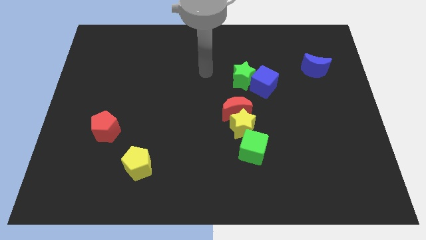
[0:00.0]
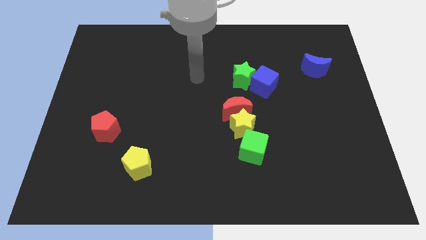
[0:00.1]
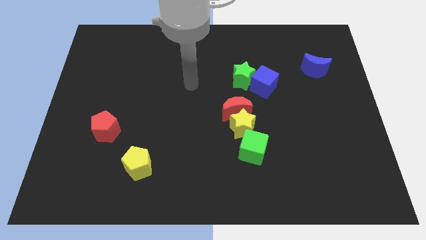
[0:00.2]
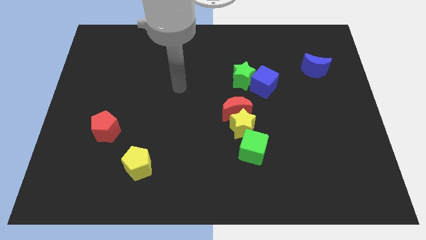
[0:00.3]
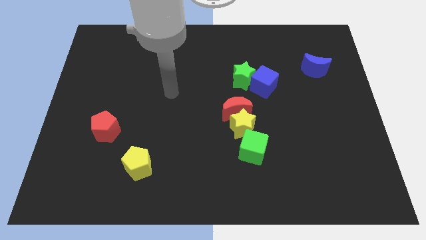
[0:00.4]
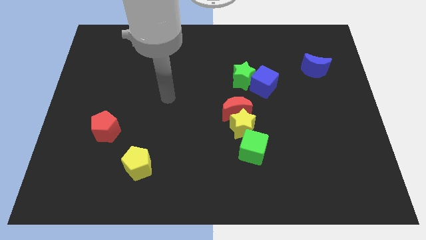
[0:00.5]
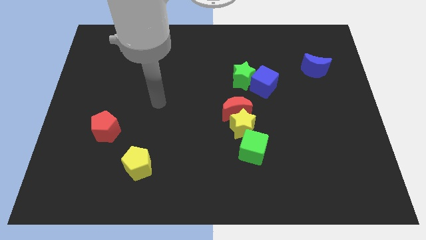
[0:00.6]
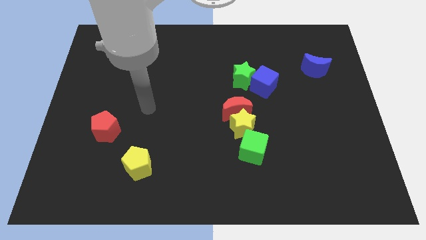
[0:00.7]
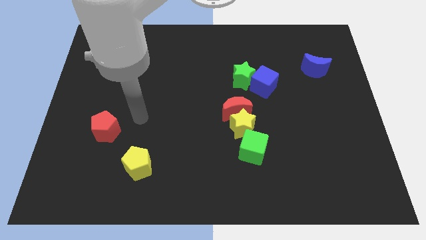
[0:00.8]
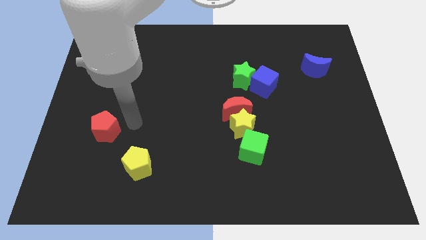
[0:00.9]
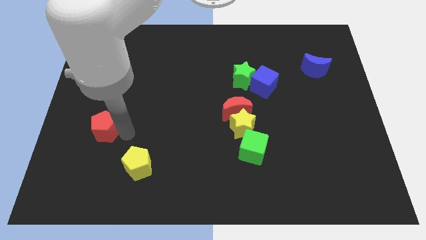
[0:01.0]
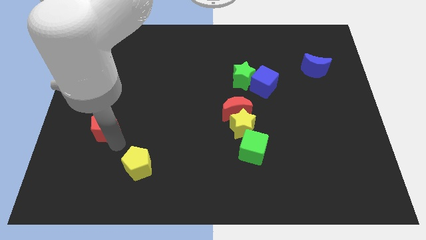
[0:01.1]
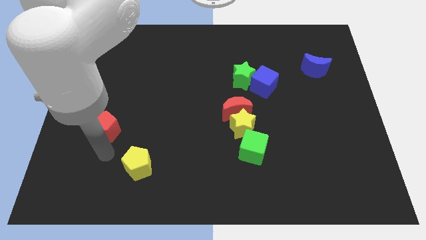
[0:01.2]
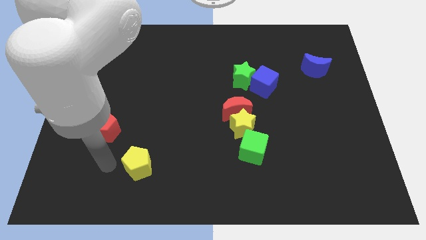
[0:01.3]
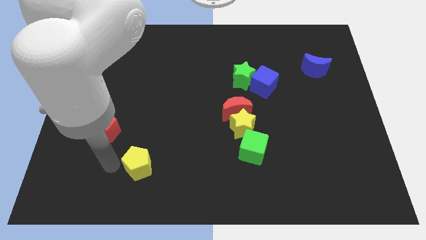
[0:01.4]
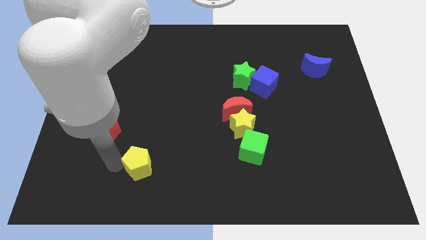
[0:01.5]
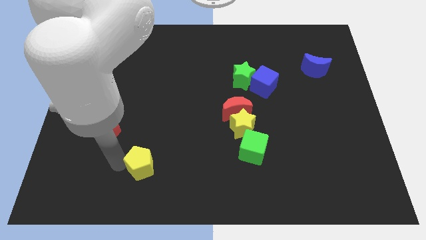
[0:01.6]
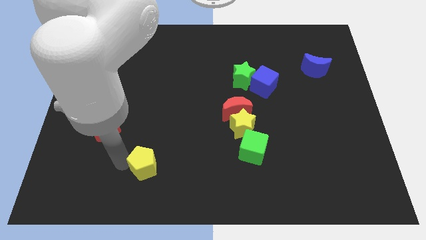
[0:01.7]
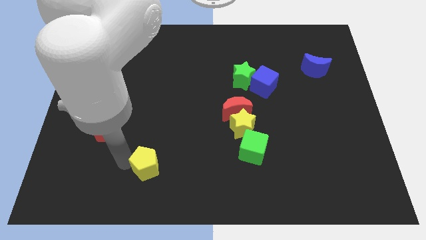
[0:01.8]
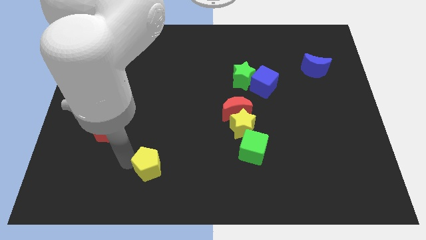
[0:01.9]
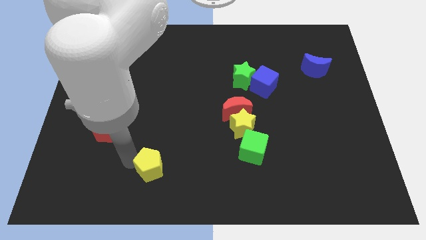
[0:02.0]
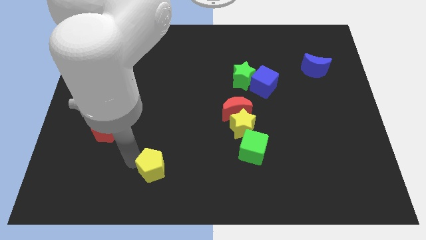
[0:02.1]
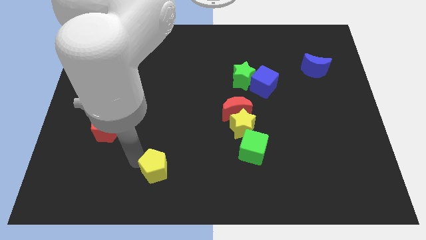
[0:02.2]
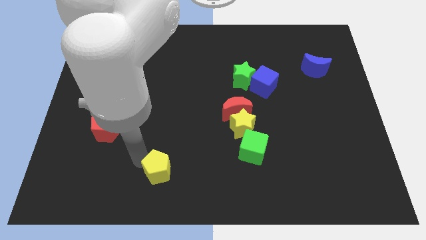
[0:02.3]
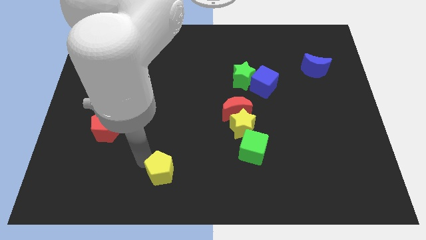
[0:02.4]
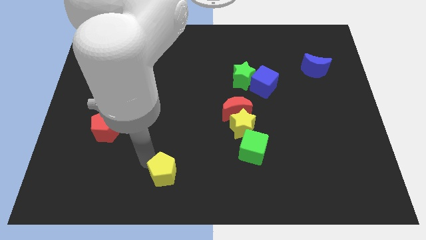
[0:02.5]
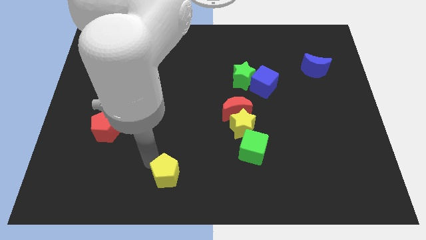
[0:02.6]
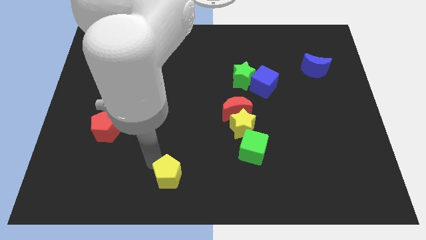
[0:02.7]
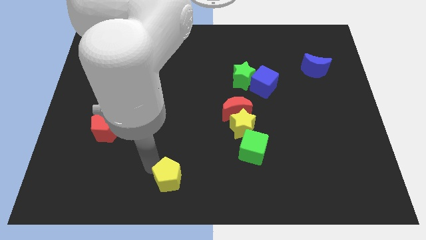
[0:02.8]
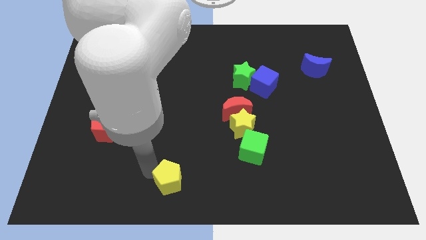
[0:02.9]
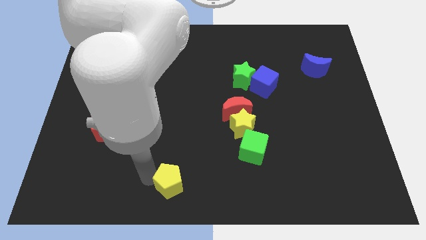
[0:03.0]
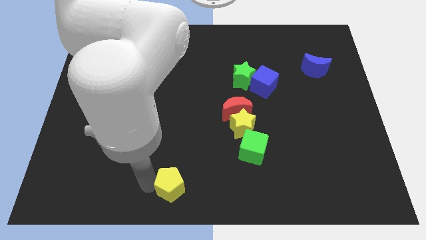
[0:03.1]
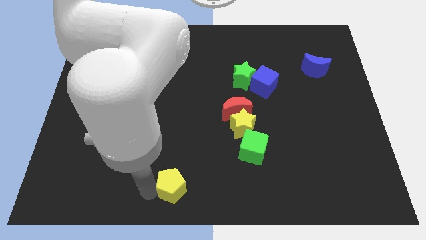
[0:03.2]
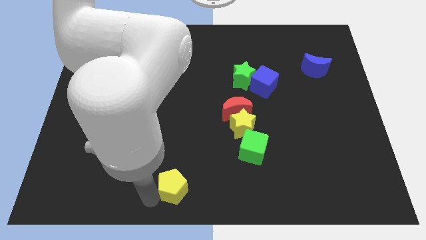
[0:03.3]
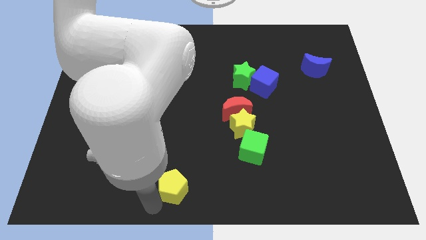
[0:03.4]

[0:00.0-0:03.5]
slide the yellow pentagon right a little bit

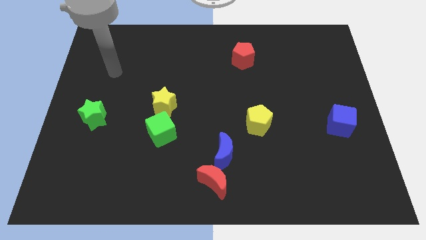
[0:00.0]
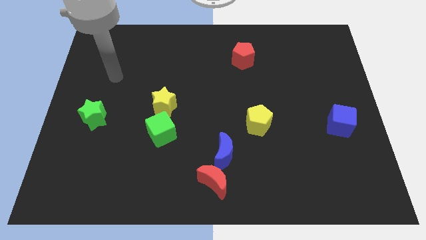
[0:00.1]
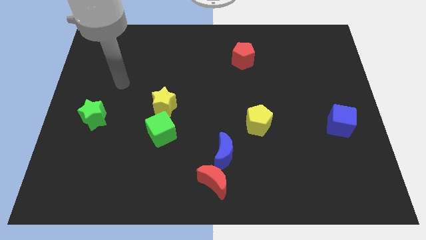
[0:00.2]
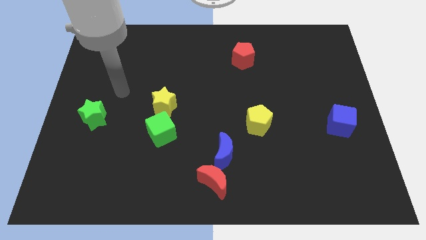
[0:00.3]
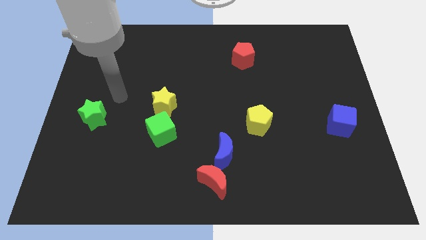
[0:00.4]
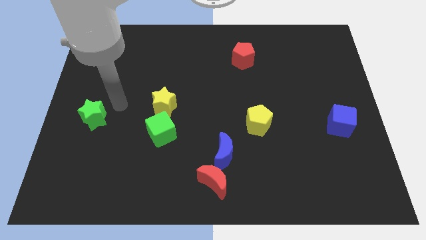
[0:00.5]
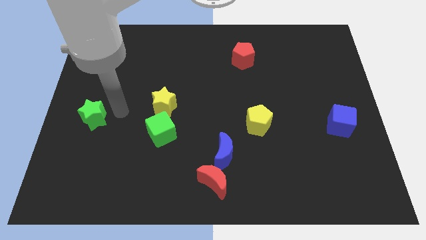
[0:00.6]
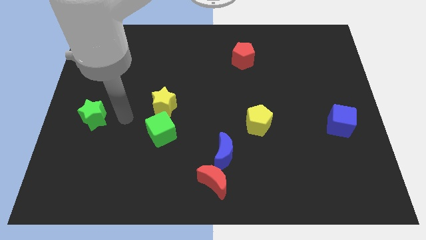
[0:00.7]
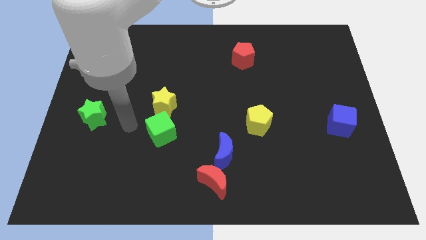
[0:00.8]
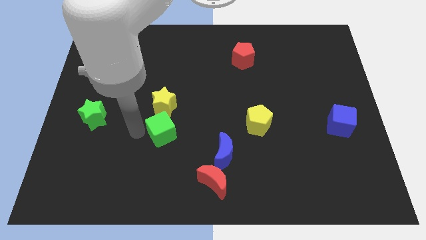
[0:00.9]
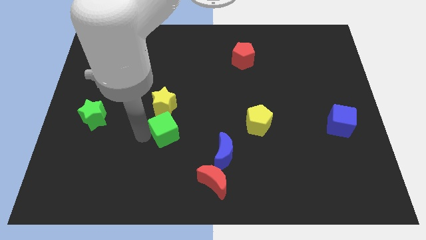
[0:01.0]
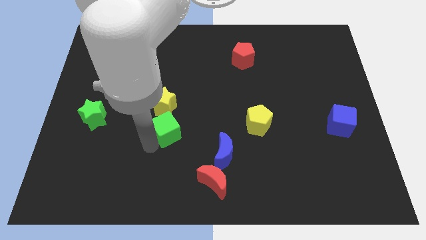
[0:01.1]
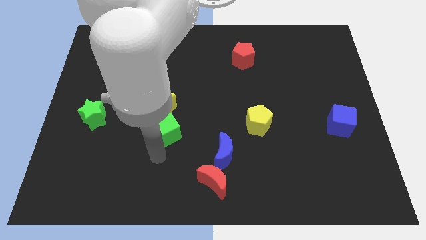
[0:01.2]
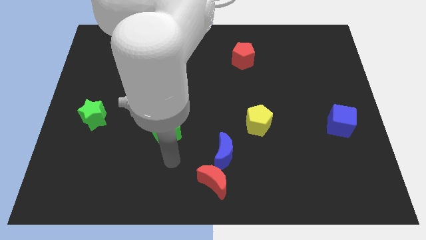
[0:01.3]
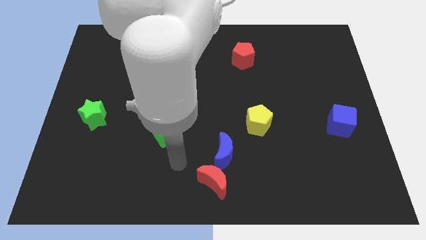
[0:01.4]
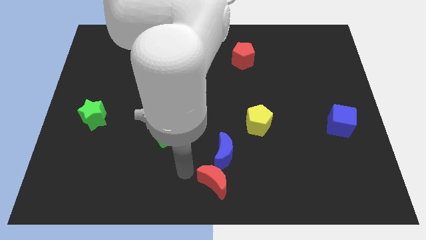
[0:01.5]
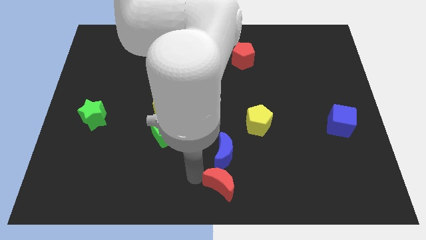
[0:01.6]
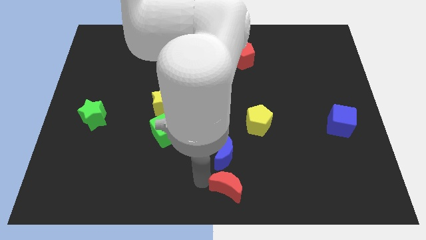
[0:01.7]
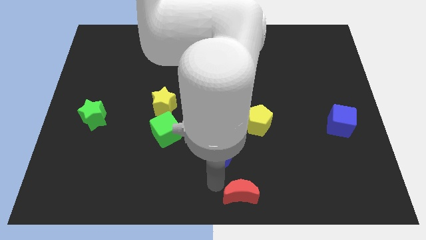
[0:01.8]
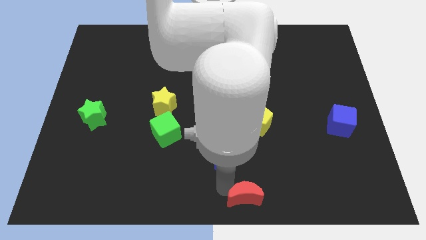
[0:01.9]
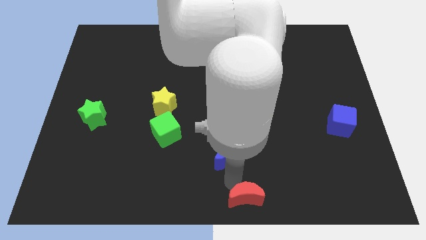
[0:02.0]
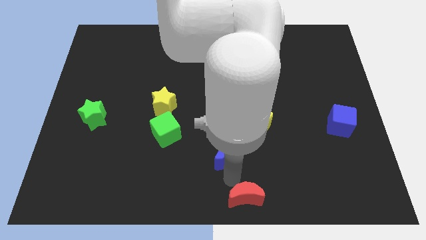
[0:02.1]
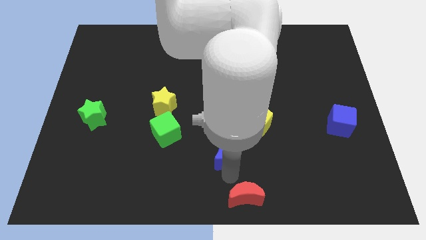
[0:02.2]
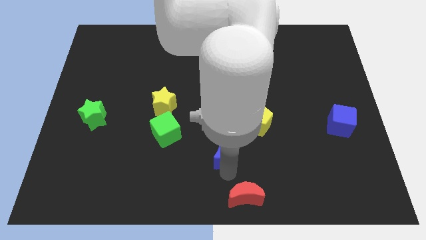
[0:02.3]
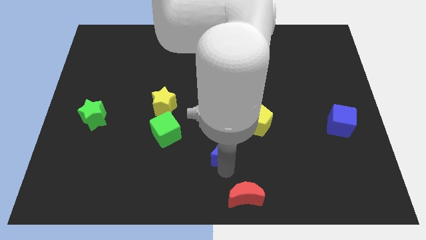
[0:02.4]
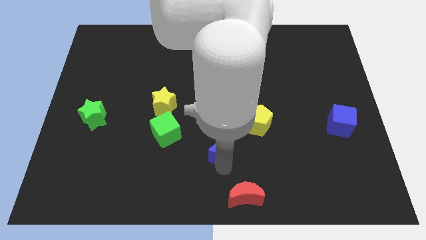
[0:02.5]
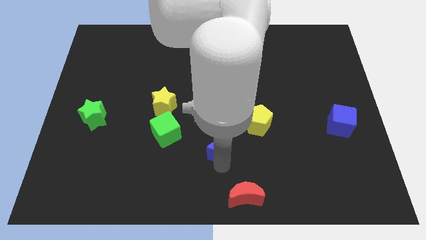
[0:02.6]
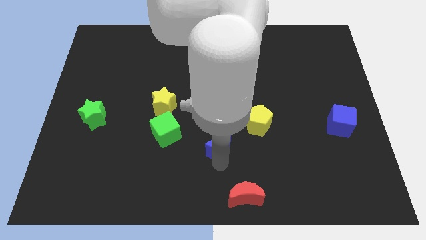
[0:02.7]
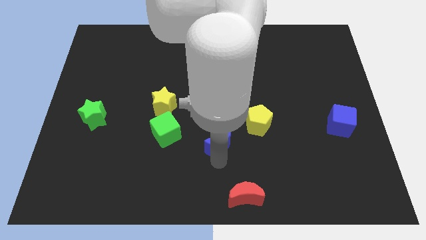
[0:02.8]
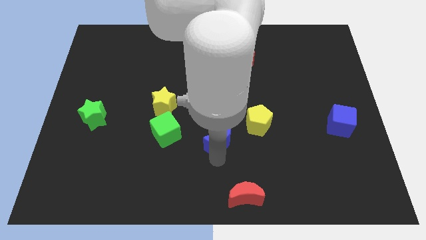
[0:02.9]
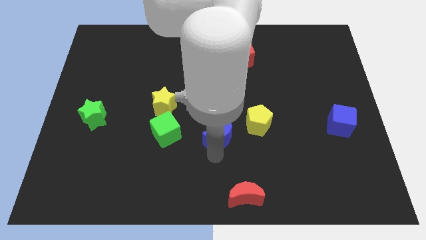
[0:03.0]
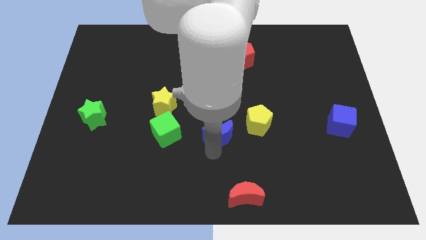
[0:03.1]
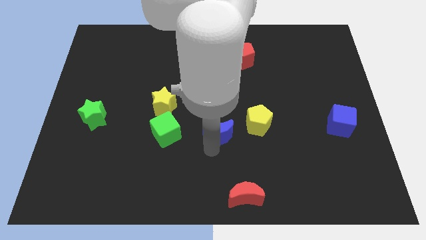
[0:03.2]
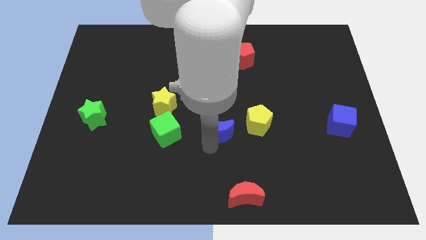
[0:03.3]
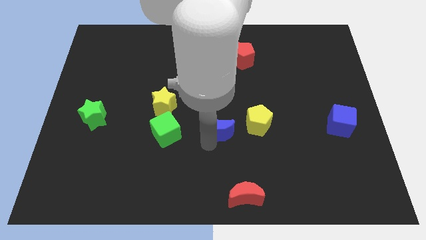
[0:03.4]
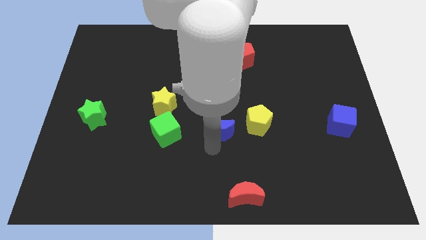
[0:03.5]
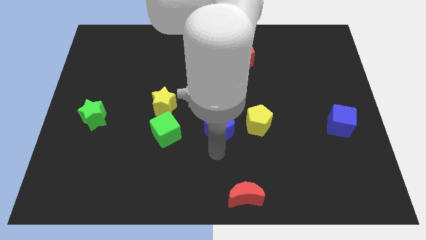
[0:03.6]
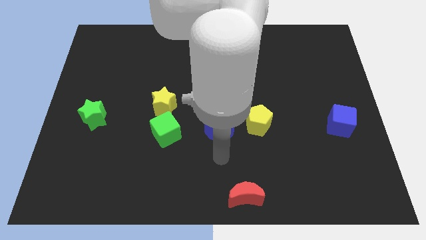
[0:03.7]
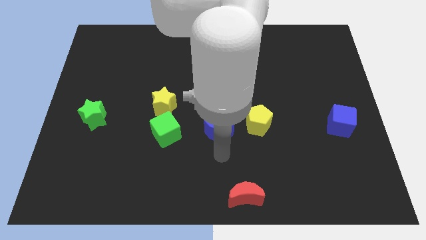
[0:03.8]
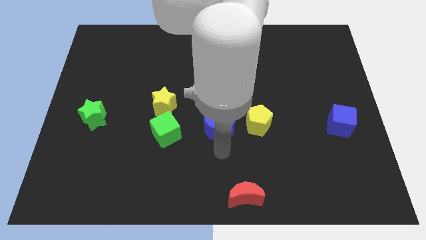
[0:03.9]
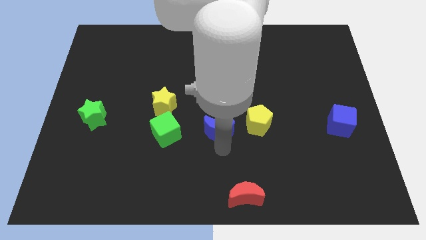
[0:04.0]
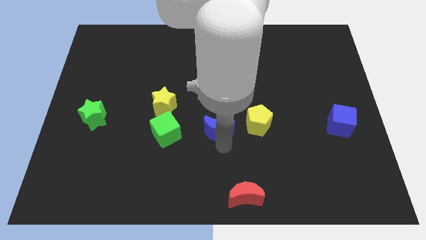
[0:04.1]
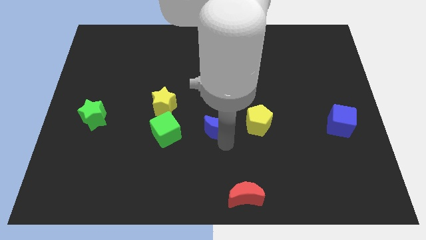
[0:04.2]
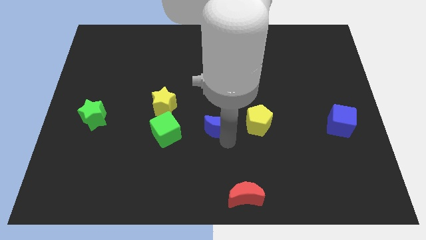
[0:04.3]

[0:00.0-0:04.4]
move the blue moon somewhat up
